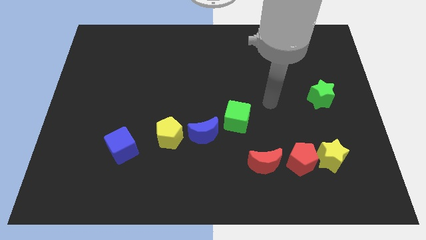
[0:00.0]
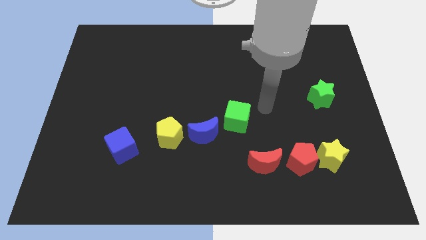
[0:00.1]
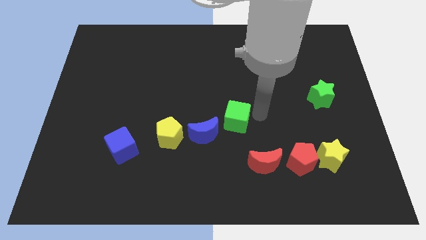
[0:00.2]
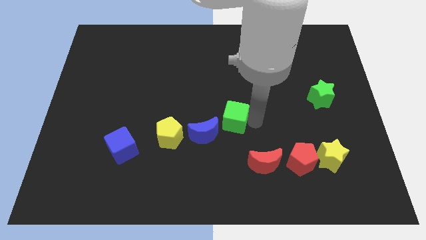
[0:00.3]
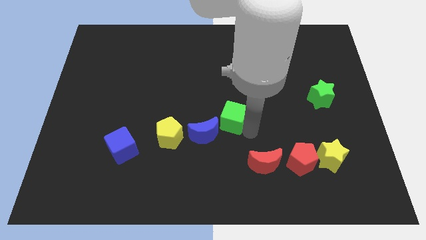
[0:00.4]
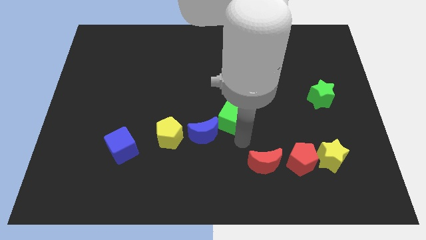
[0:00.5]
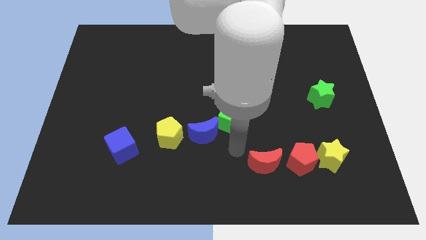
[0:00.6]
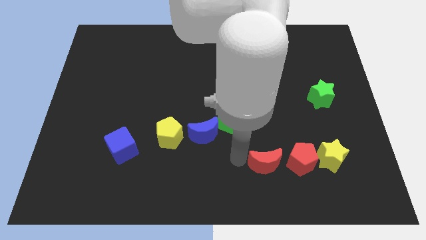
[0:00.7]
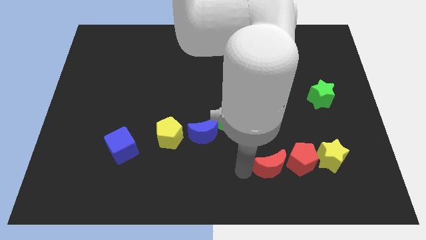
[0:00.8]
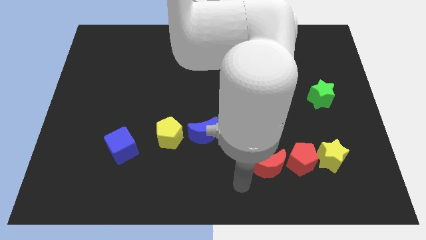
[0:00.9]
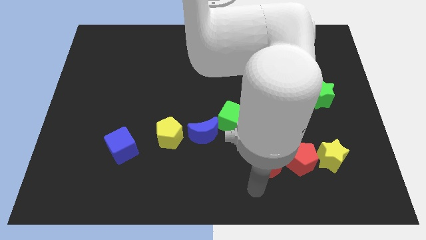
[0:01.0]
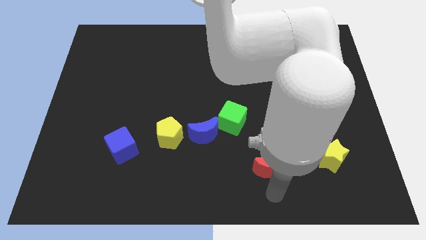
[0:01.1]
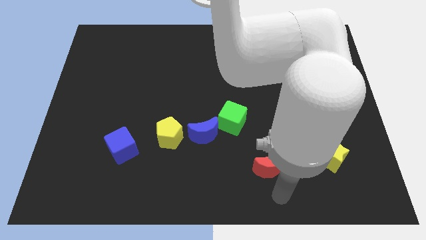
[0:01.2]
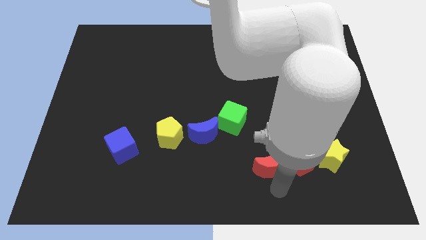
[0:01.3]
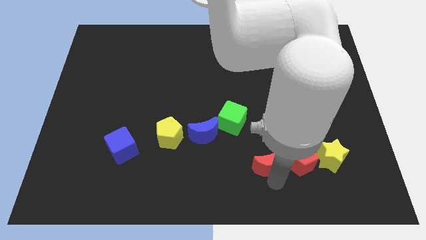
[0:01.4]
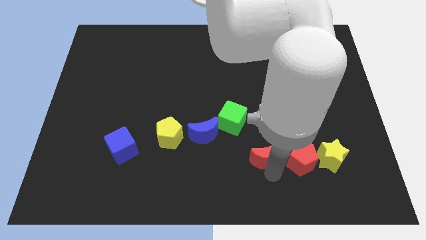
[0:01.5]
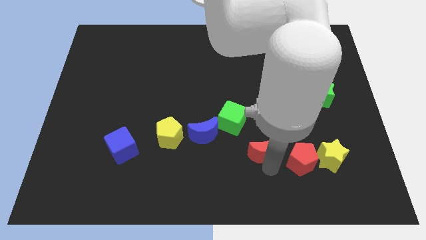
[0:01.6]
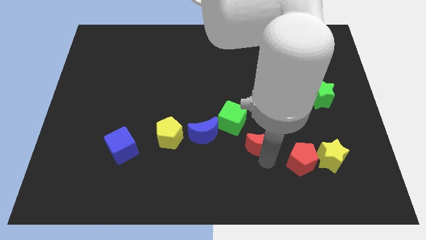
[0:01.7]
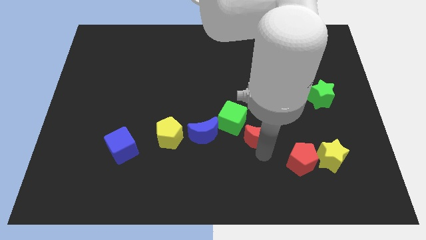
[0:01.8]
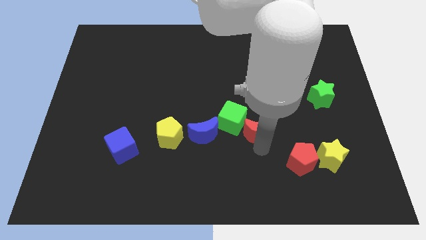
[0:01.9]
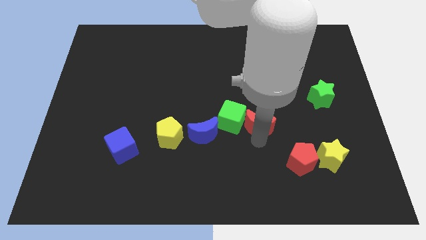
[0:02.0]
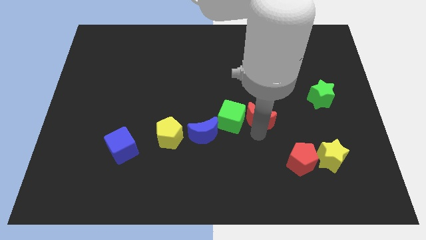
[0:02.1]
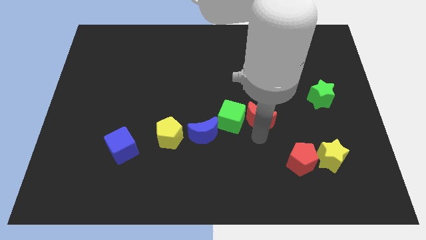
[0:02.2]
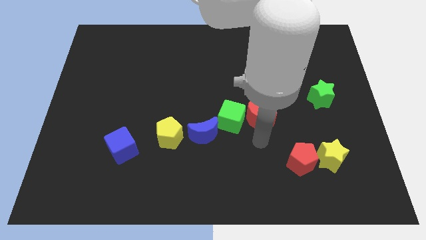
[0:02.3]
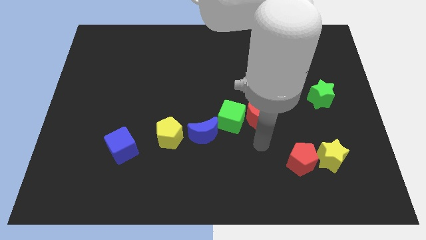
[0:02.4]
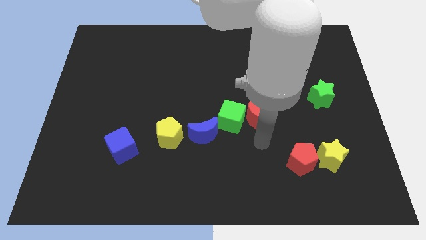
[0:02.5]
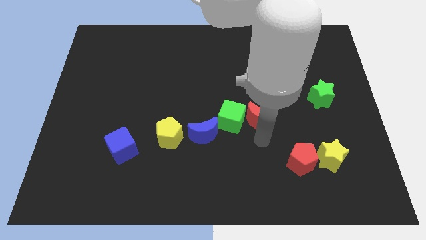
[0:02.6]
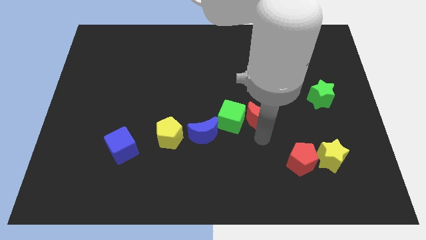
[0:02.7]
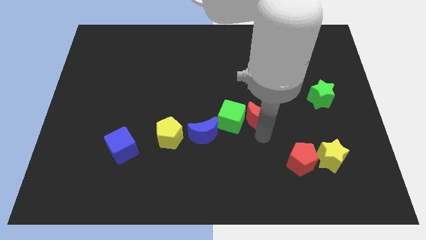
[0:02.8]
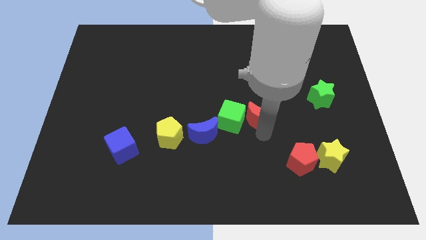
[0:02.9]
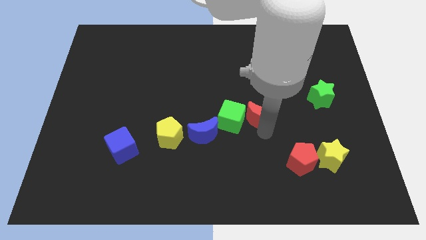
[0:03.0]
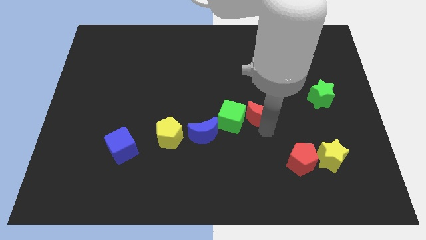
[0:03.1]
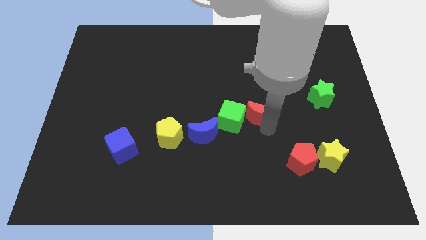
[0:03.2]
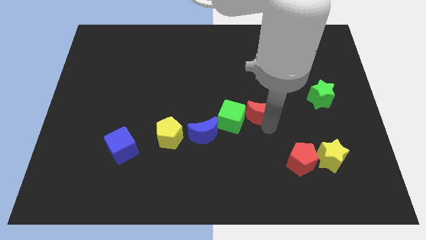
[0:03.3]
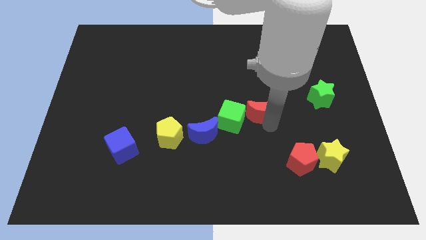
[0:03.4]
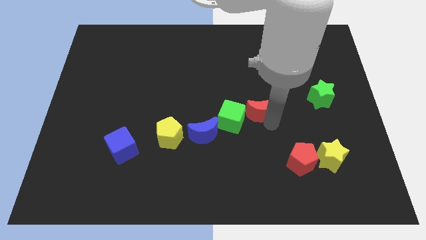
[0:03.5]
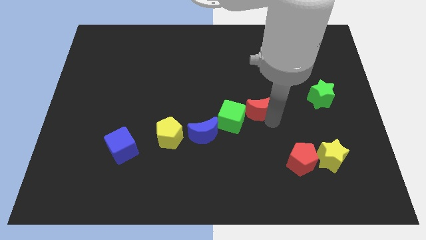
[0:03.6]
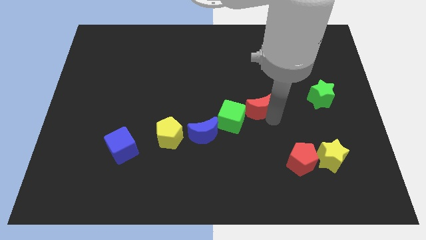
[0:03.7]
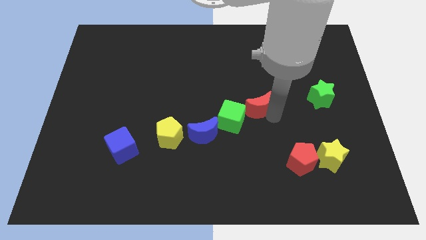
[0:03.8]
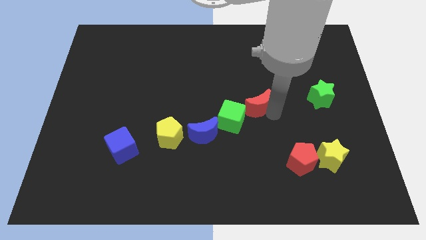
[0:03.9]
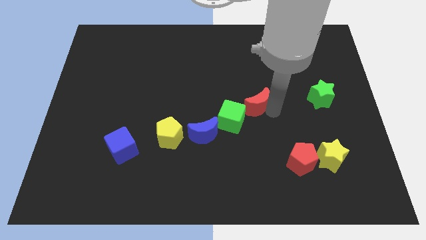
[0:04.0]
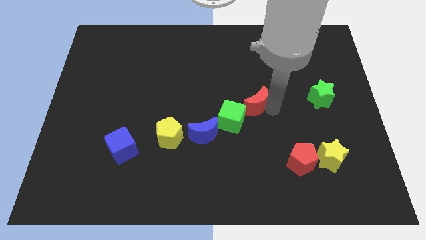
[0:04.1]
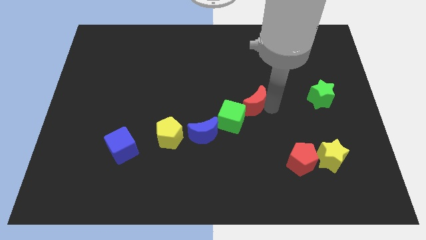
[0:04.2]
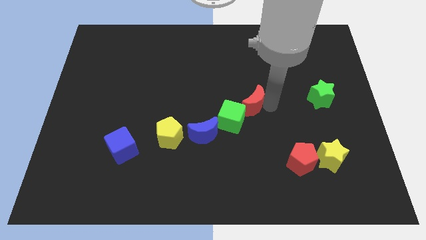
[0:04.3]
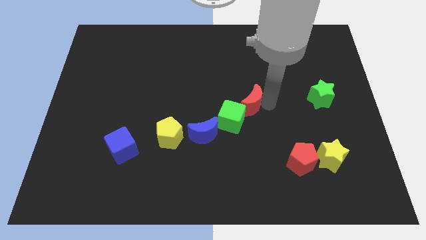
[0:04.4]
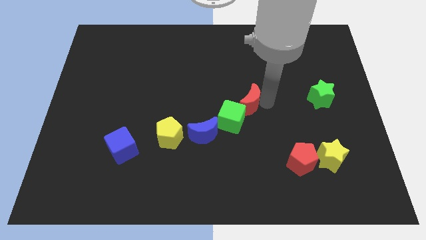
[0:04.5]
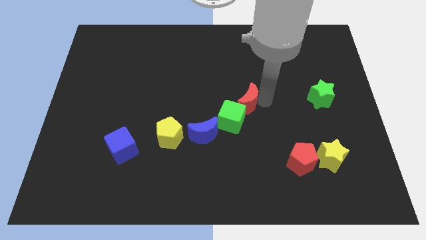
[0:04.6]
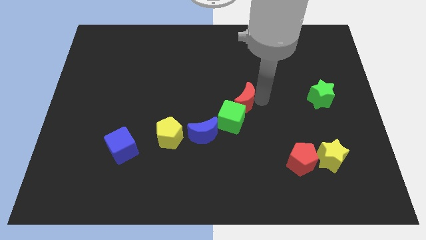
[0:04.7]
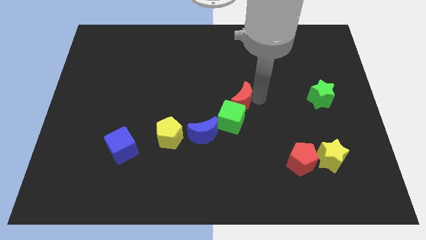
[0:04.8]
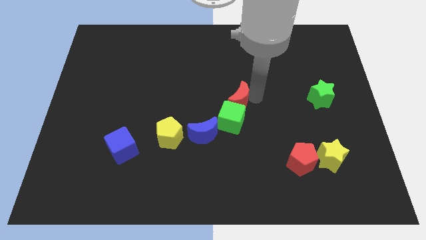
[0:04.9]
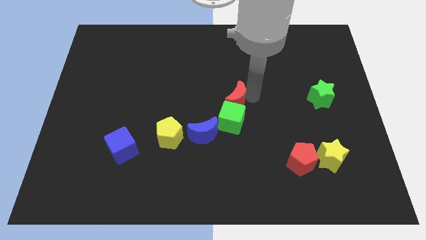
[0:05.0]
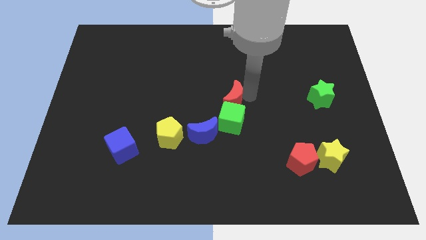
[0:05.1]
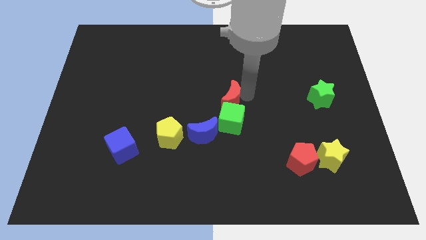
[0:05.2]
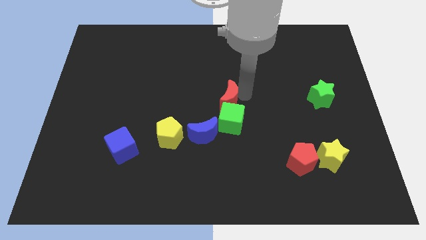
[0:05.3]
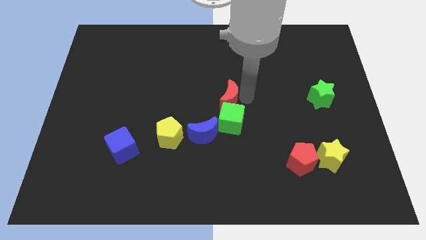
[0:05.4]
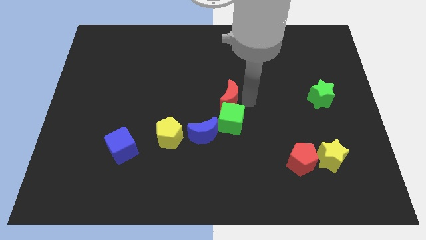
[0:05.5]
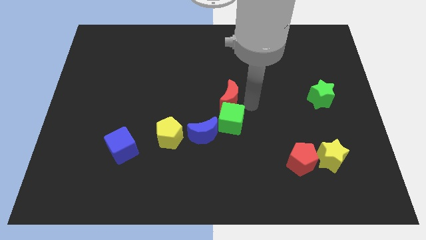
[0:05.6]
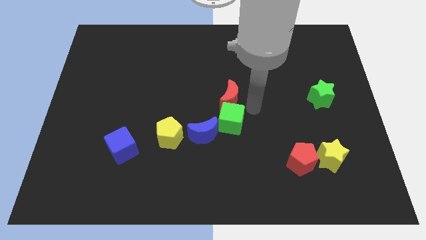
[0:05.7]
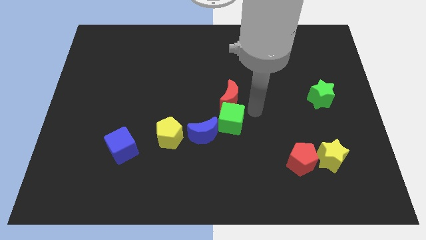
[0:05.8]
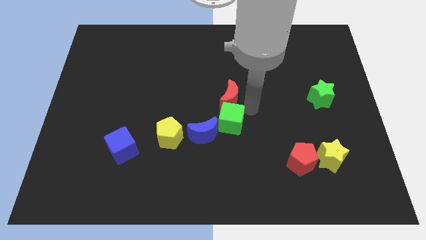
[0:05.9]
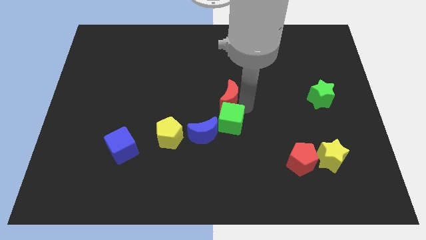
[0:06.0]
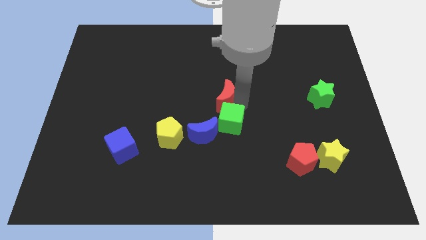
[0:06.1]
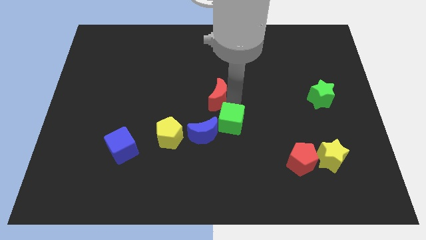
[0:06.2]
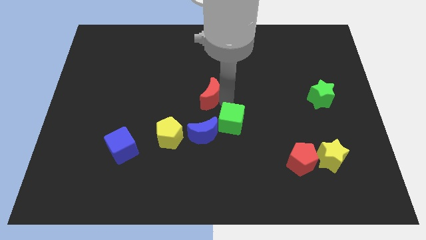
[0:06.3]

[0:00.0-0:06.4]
push the red moon up and left

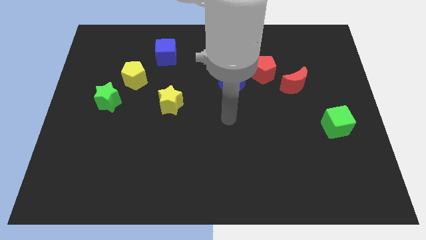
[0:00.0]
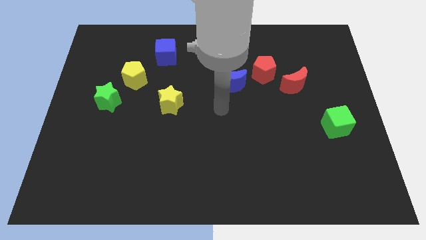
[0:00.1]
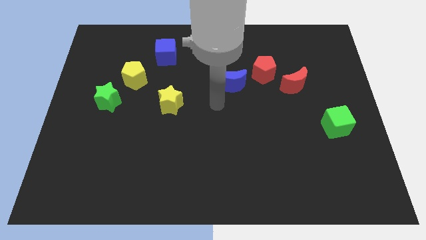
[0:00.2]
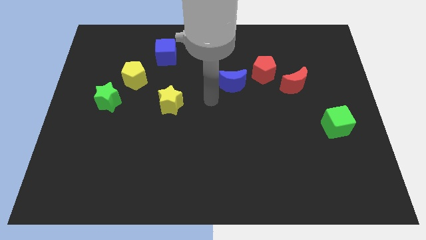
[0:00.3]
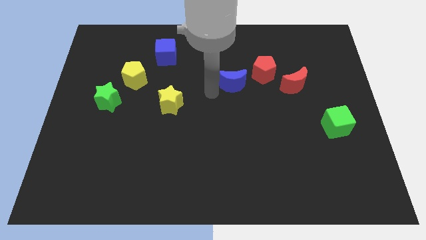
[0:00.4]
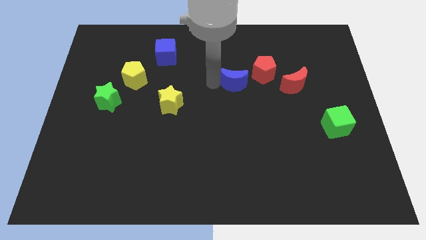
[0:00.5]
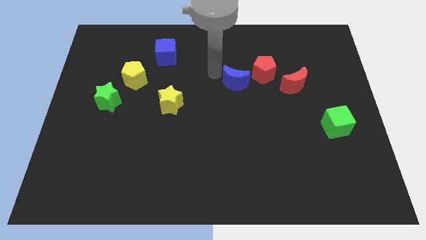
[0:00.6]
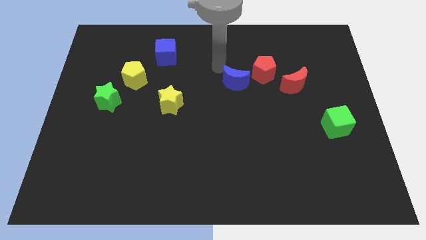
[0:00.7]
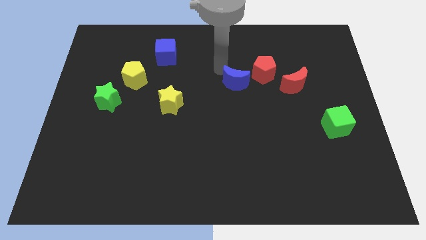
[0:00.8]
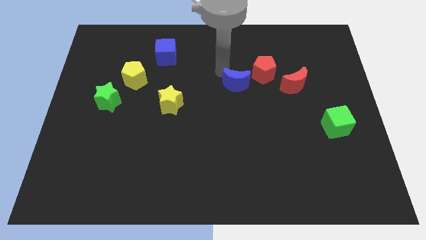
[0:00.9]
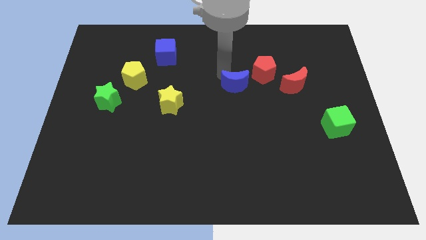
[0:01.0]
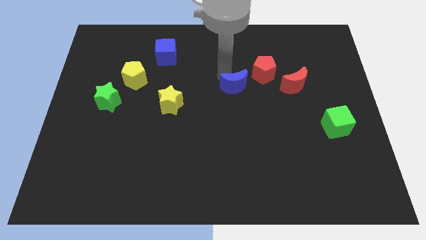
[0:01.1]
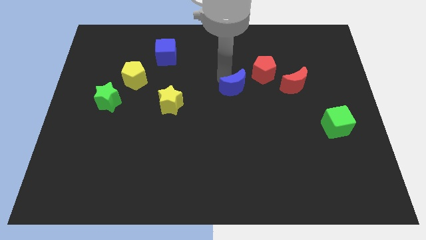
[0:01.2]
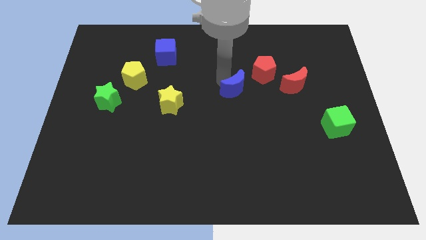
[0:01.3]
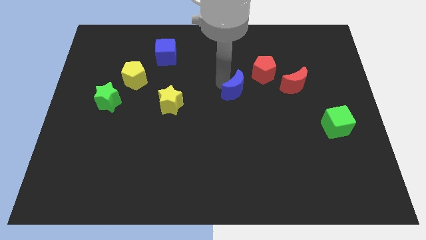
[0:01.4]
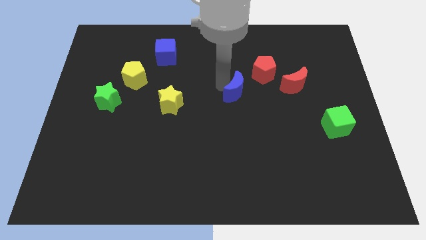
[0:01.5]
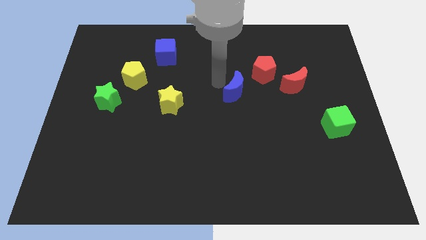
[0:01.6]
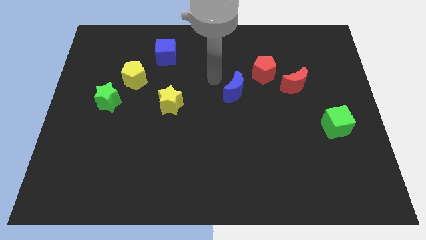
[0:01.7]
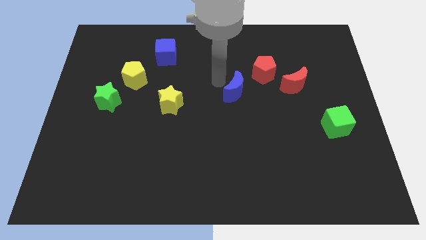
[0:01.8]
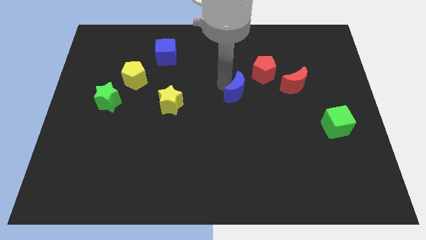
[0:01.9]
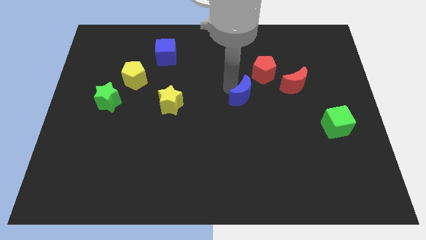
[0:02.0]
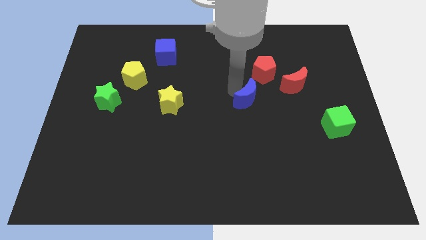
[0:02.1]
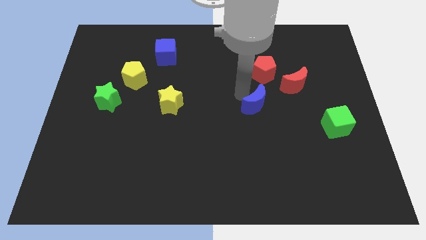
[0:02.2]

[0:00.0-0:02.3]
slightly move the blue moon down and right diagonally
